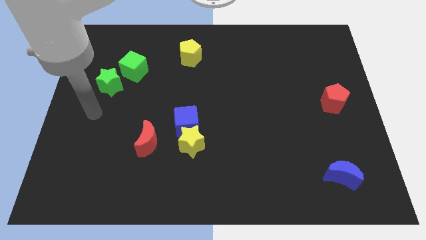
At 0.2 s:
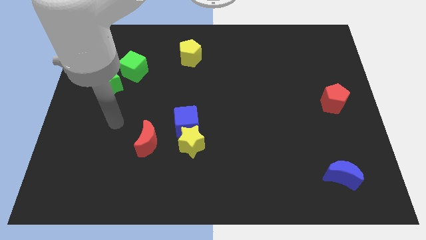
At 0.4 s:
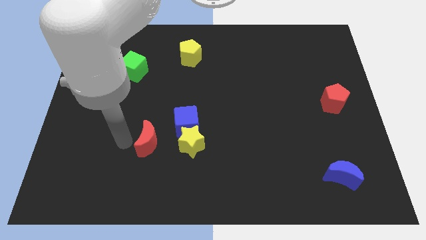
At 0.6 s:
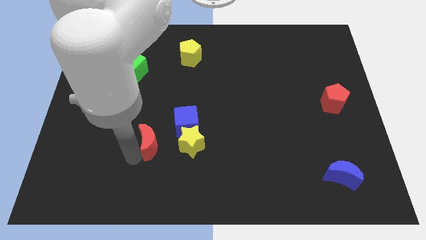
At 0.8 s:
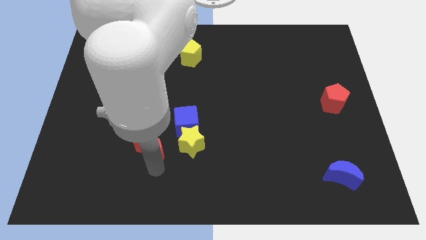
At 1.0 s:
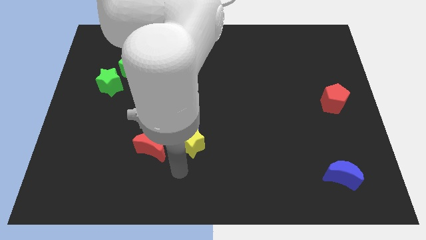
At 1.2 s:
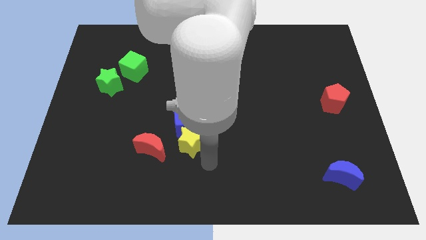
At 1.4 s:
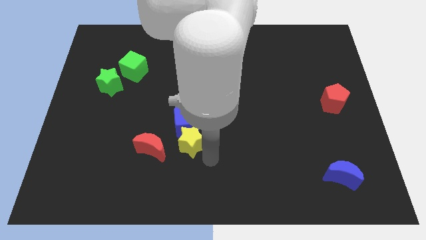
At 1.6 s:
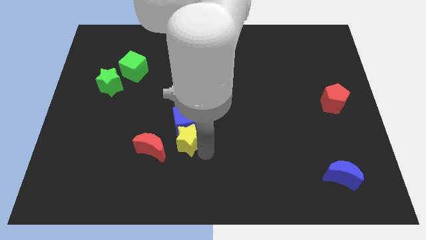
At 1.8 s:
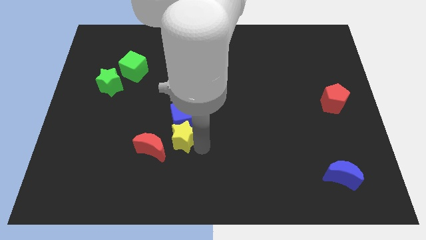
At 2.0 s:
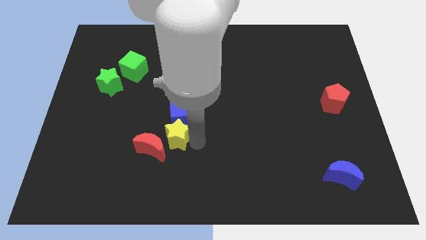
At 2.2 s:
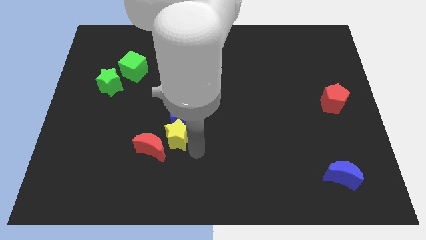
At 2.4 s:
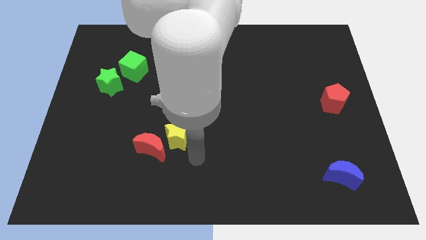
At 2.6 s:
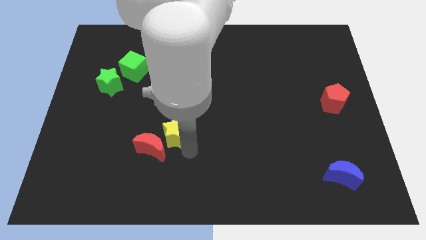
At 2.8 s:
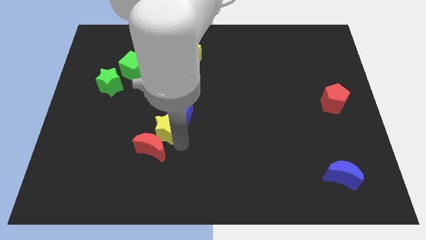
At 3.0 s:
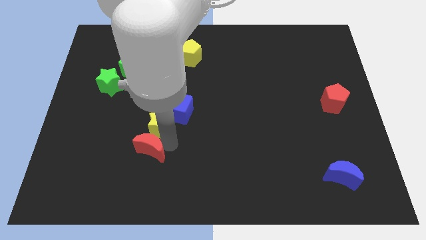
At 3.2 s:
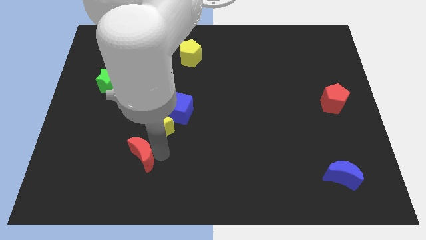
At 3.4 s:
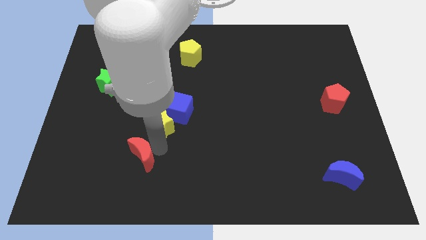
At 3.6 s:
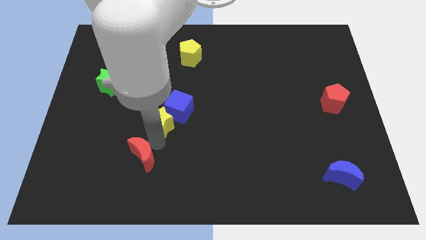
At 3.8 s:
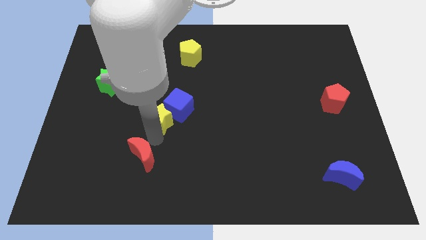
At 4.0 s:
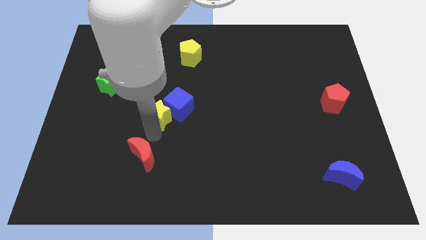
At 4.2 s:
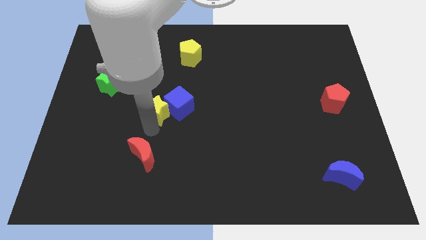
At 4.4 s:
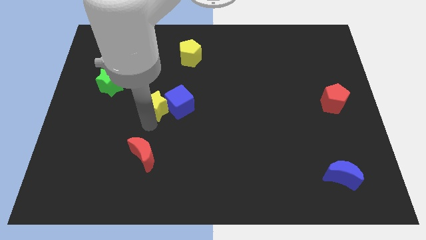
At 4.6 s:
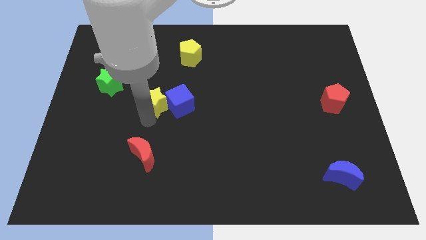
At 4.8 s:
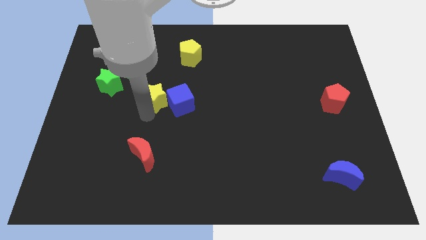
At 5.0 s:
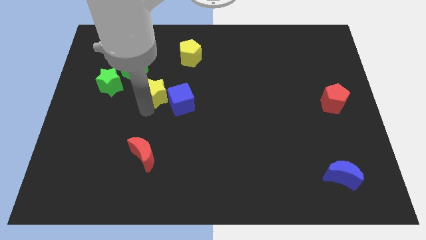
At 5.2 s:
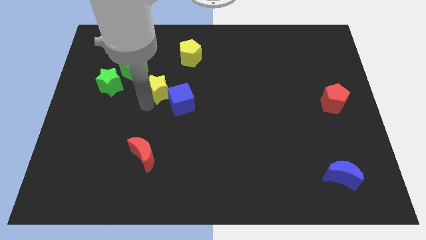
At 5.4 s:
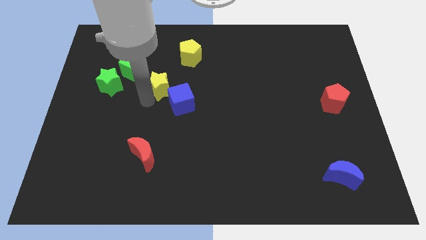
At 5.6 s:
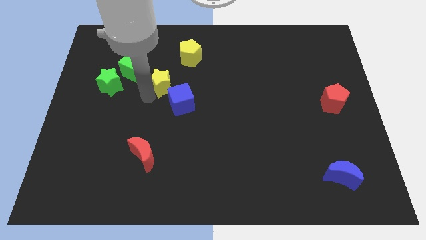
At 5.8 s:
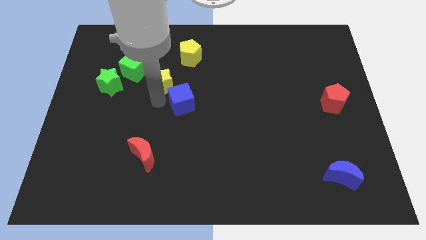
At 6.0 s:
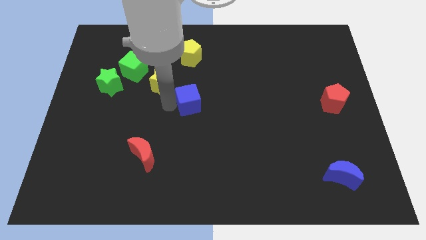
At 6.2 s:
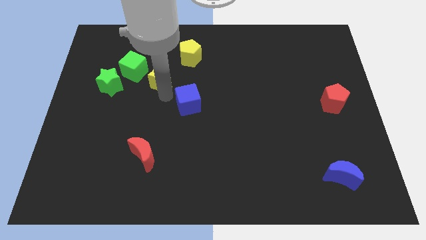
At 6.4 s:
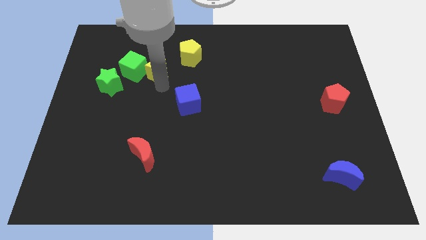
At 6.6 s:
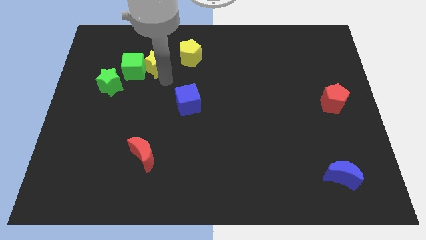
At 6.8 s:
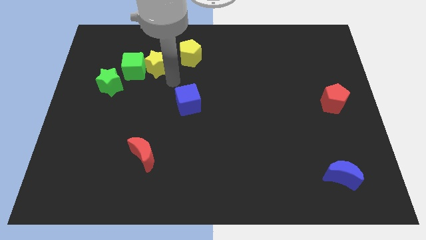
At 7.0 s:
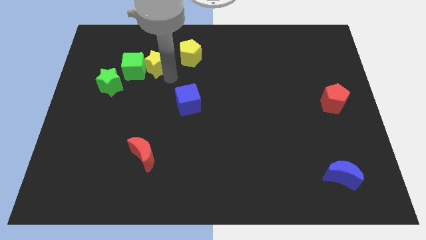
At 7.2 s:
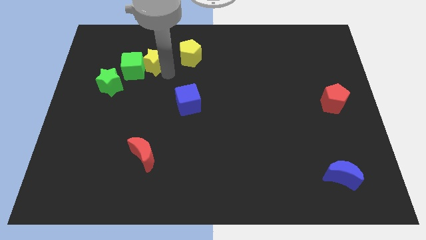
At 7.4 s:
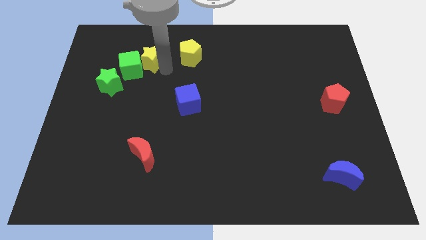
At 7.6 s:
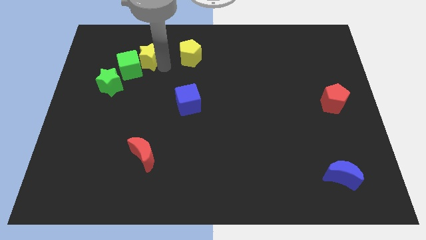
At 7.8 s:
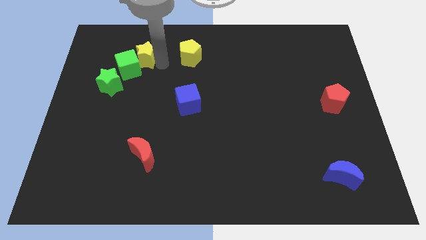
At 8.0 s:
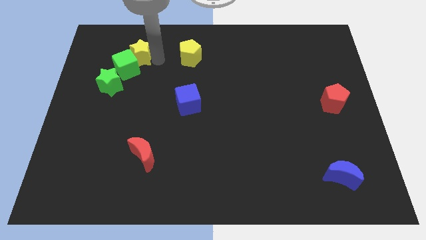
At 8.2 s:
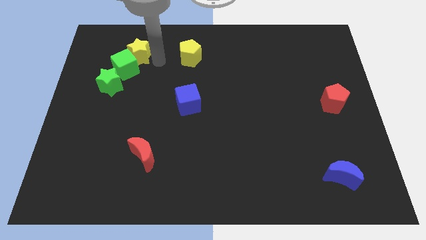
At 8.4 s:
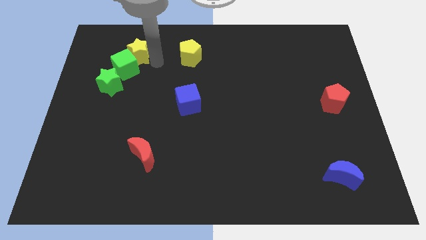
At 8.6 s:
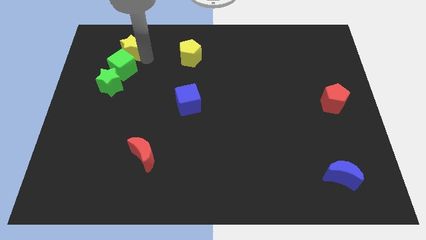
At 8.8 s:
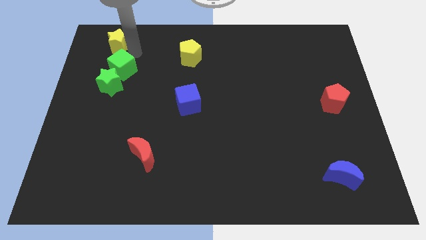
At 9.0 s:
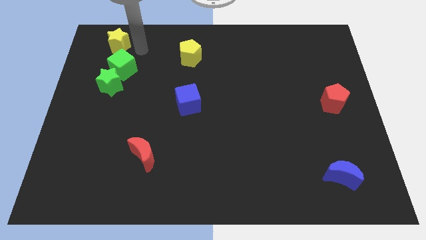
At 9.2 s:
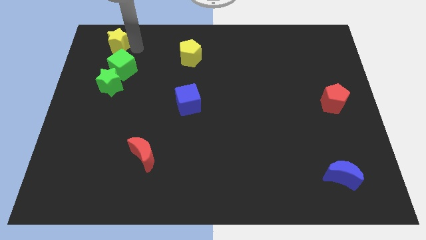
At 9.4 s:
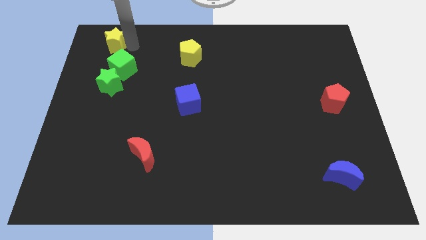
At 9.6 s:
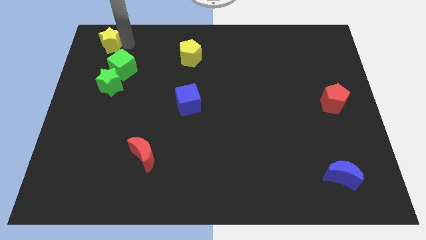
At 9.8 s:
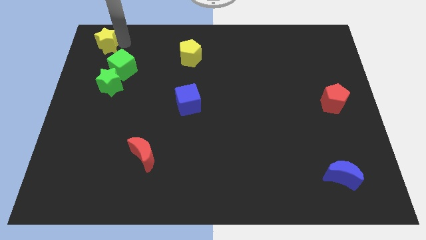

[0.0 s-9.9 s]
push the yellow star to the top left

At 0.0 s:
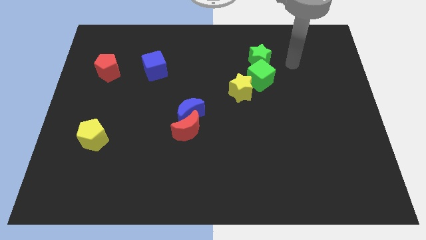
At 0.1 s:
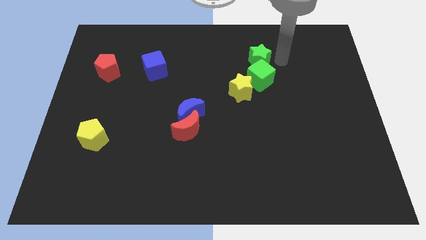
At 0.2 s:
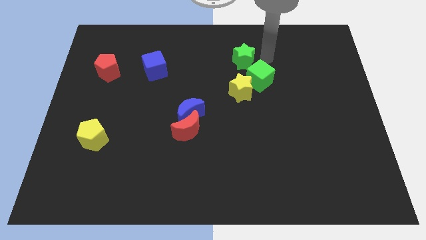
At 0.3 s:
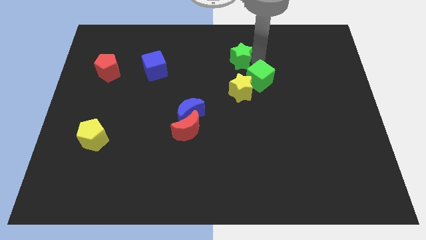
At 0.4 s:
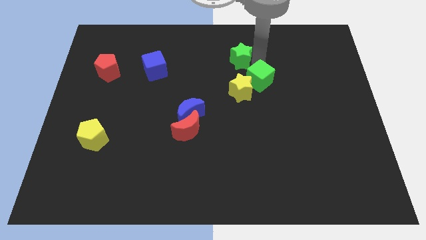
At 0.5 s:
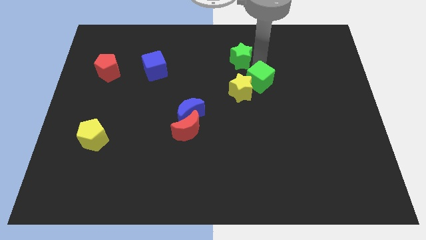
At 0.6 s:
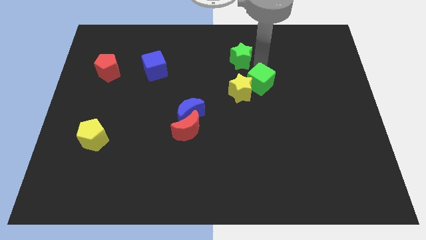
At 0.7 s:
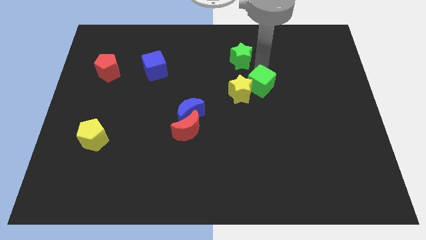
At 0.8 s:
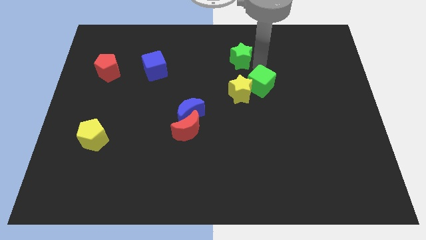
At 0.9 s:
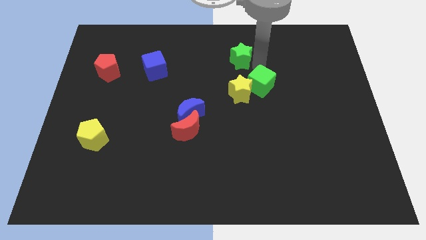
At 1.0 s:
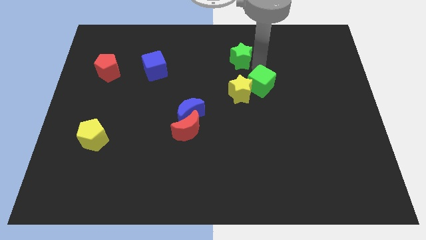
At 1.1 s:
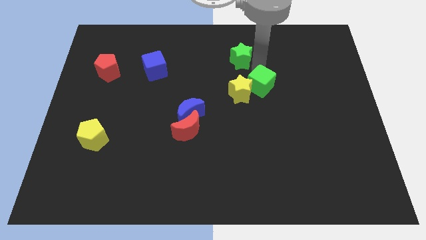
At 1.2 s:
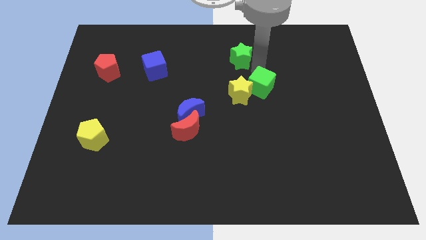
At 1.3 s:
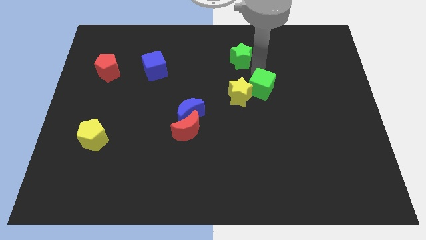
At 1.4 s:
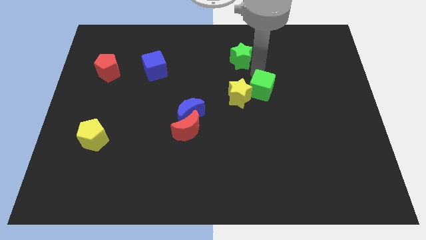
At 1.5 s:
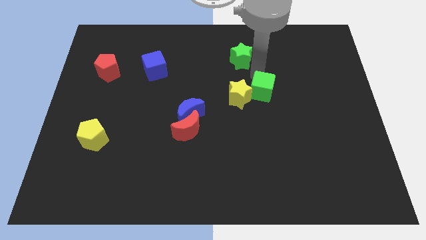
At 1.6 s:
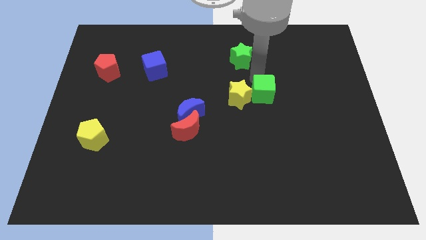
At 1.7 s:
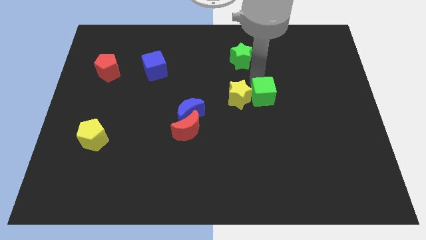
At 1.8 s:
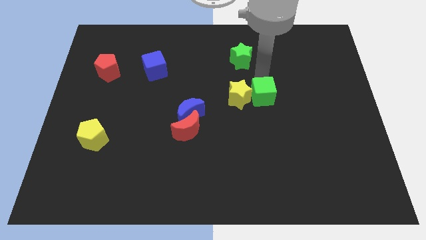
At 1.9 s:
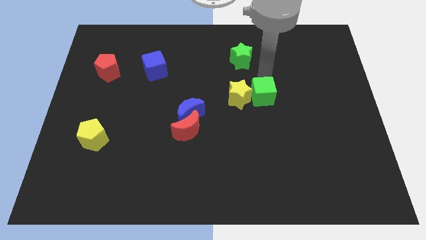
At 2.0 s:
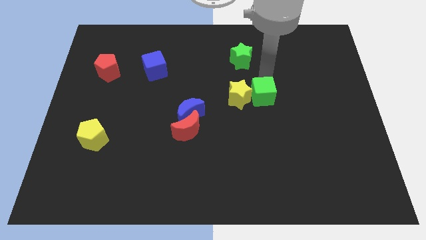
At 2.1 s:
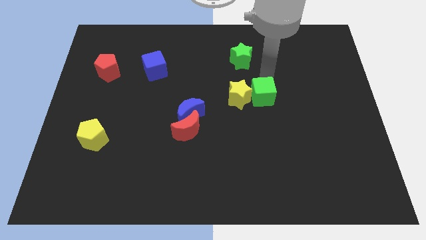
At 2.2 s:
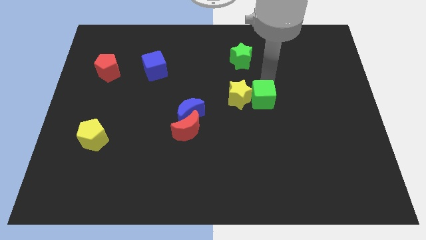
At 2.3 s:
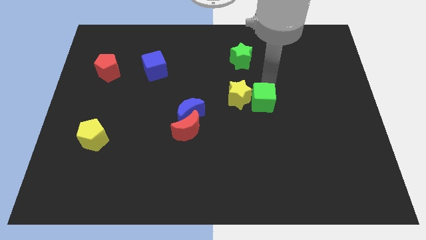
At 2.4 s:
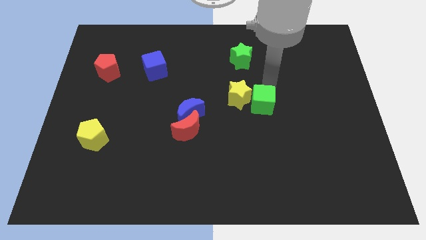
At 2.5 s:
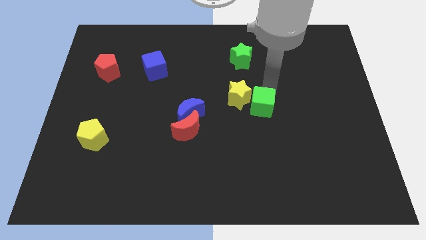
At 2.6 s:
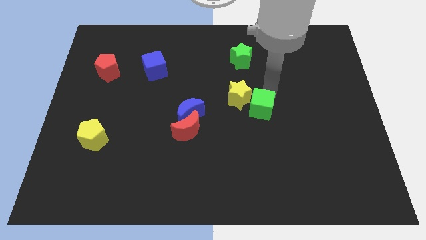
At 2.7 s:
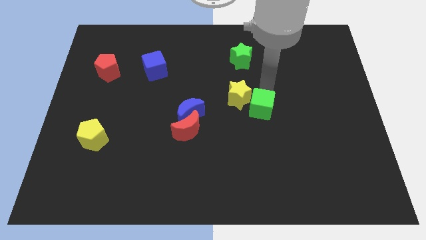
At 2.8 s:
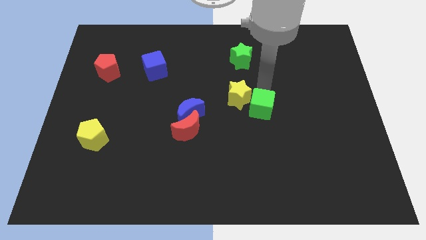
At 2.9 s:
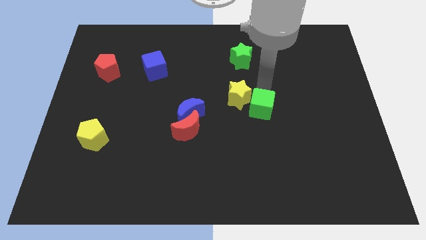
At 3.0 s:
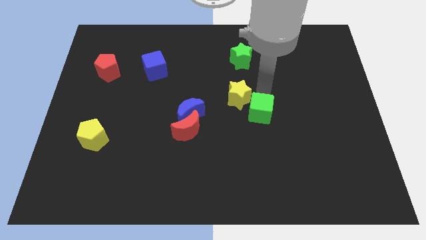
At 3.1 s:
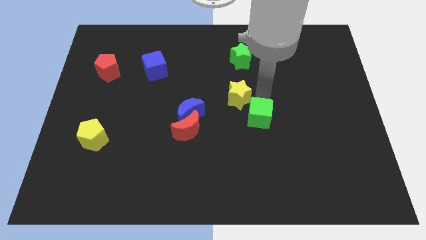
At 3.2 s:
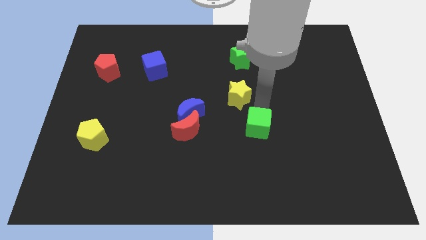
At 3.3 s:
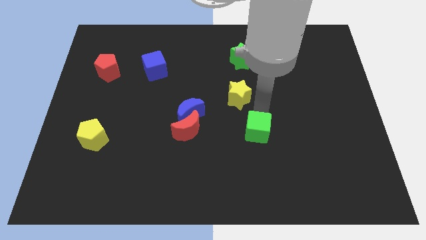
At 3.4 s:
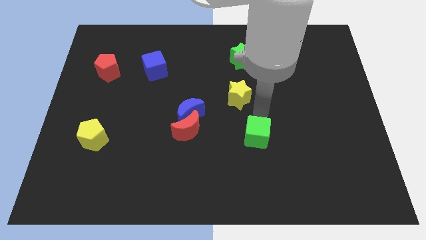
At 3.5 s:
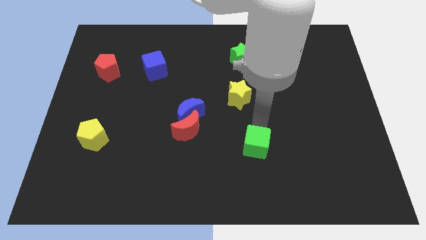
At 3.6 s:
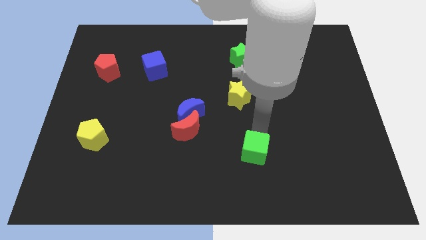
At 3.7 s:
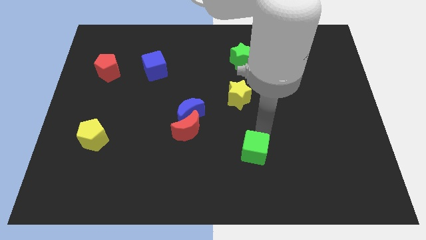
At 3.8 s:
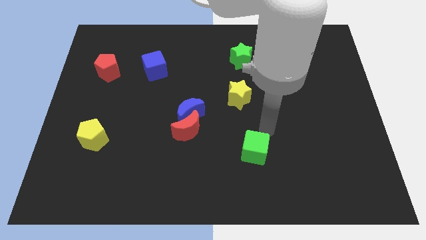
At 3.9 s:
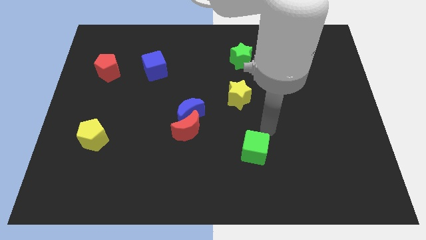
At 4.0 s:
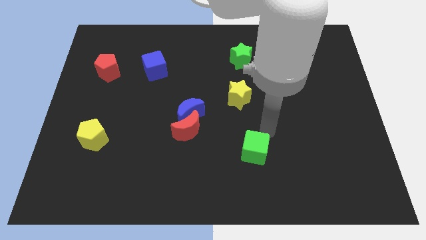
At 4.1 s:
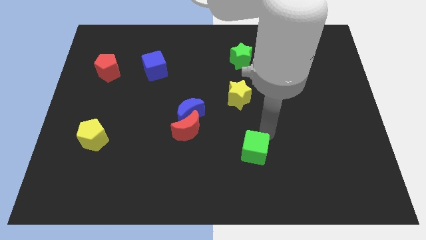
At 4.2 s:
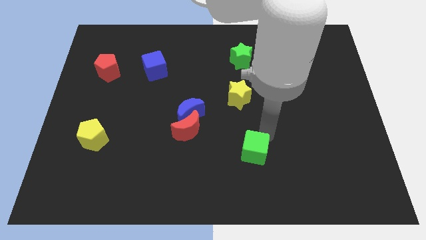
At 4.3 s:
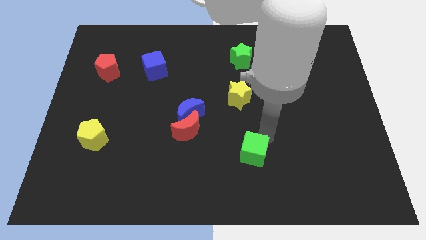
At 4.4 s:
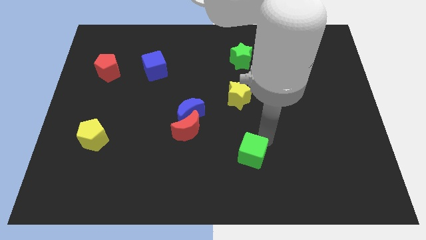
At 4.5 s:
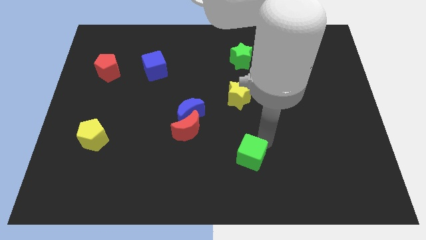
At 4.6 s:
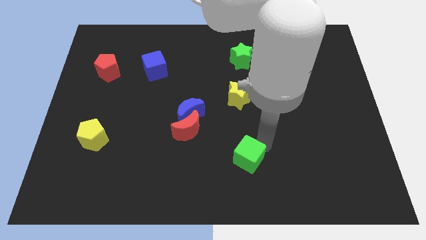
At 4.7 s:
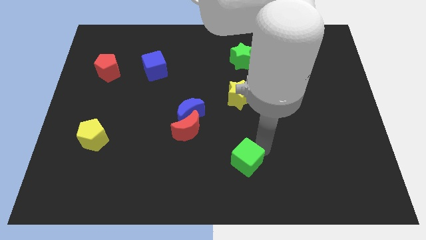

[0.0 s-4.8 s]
push the green cube to the bottom side
